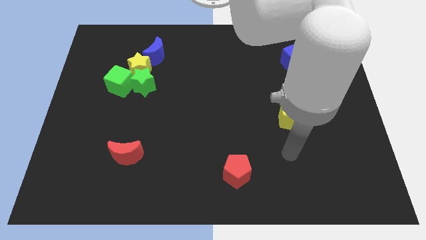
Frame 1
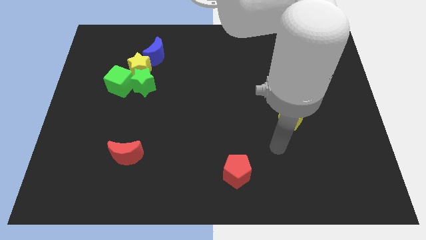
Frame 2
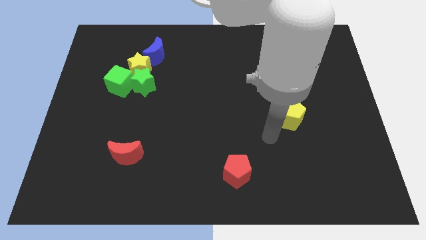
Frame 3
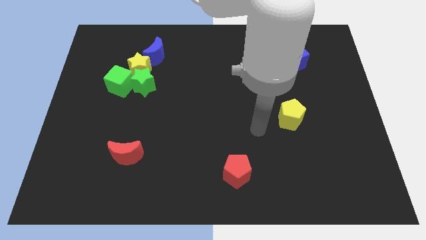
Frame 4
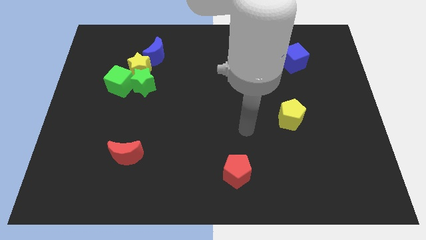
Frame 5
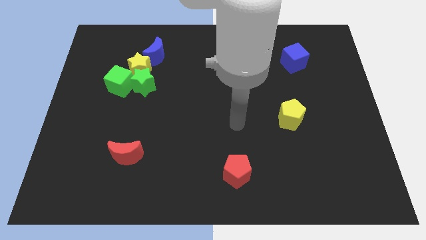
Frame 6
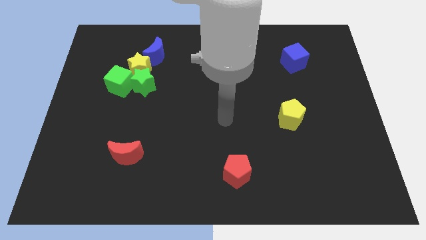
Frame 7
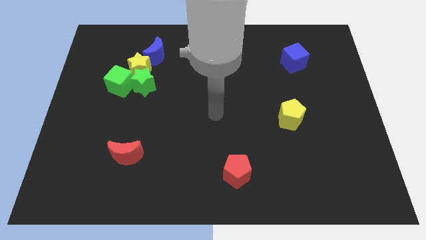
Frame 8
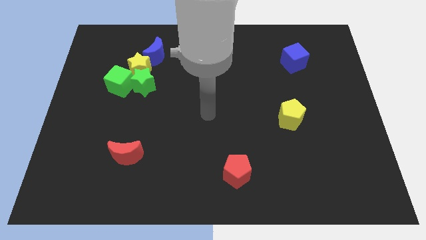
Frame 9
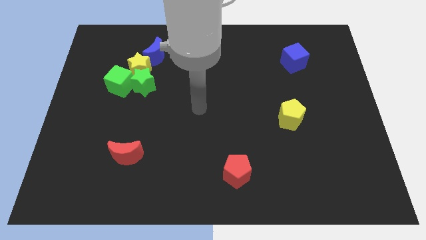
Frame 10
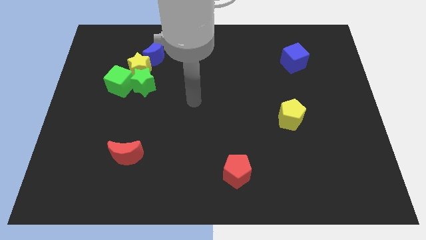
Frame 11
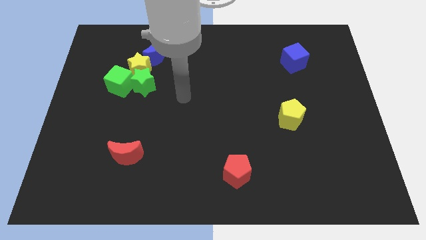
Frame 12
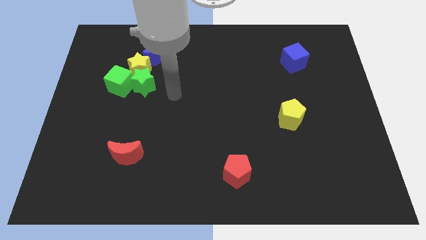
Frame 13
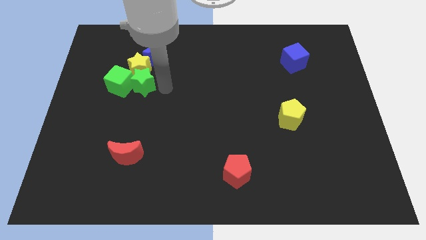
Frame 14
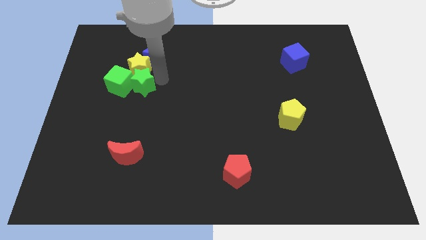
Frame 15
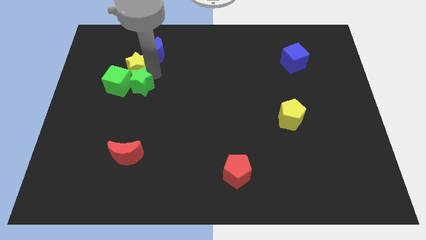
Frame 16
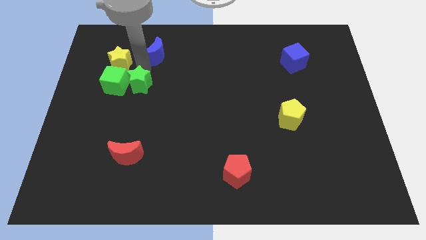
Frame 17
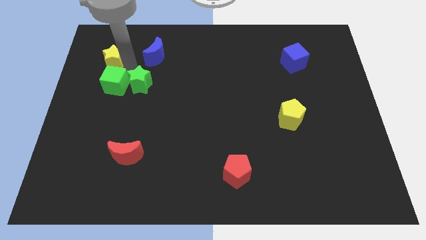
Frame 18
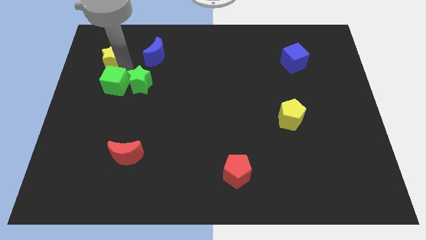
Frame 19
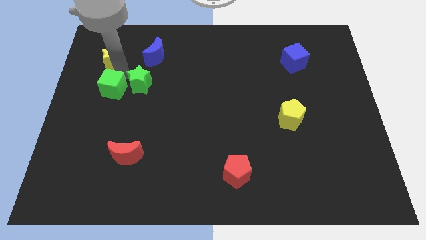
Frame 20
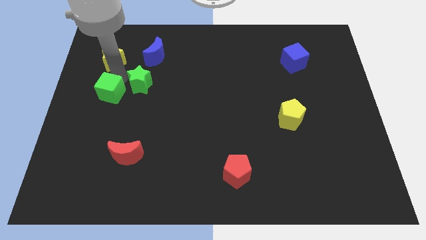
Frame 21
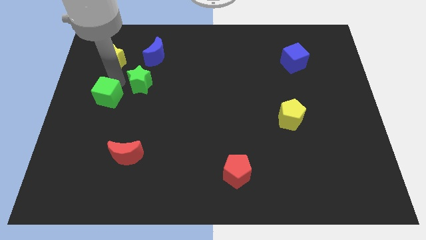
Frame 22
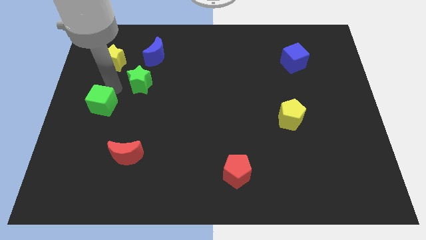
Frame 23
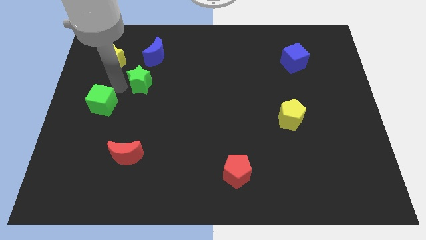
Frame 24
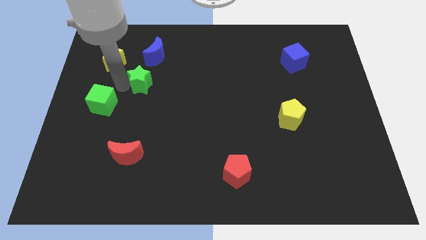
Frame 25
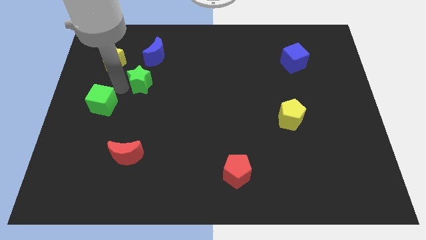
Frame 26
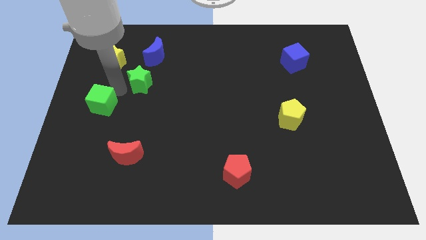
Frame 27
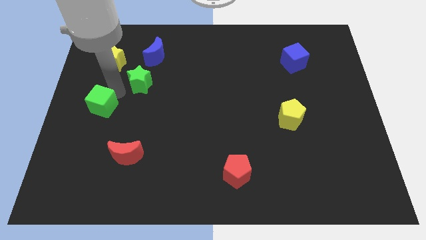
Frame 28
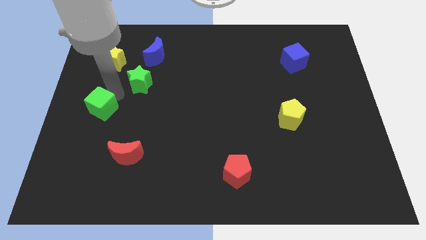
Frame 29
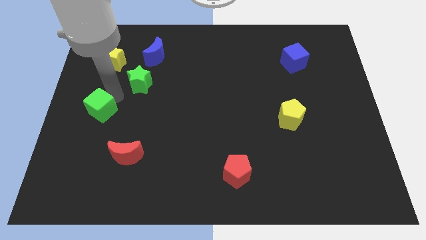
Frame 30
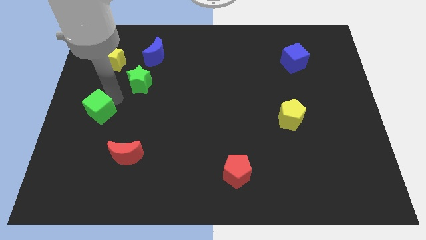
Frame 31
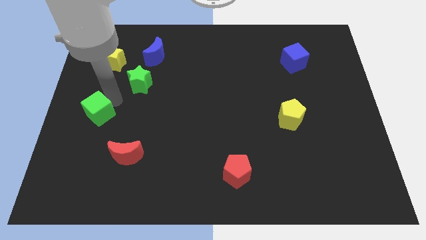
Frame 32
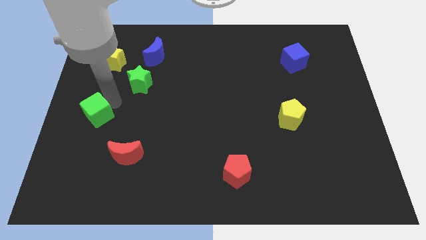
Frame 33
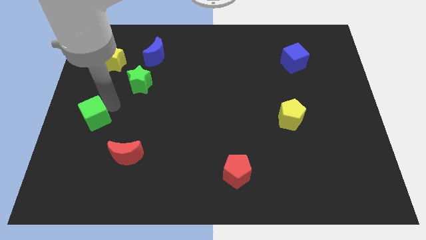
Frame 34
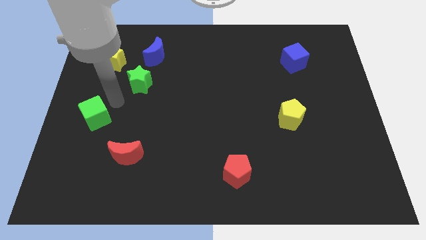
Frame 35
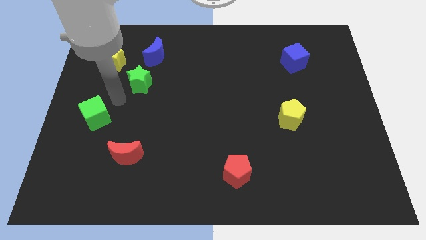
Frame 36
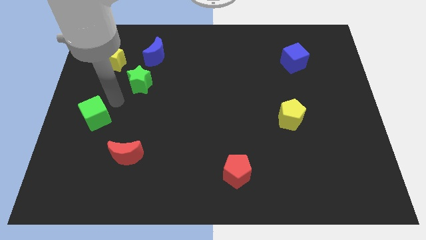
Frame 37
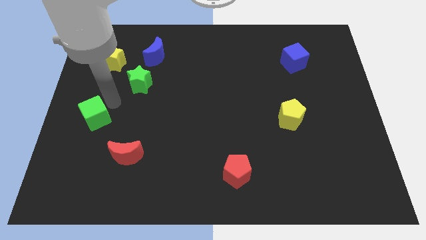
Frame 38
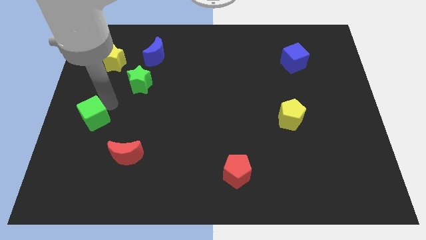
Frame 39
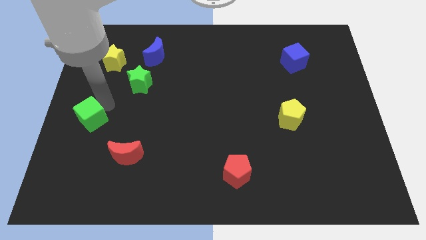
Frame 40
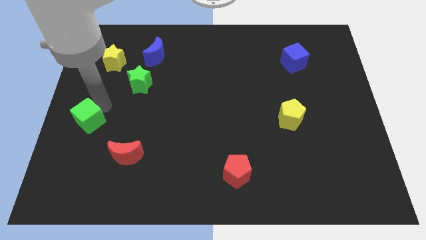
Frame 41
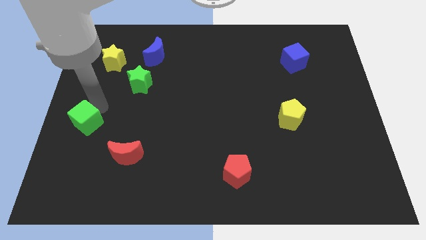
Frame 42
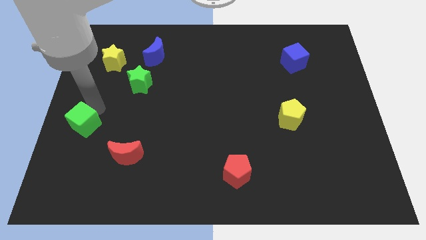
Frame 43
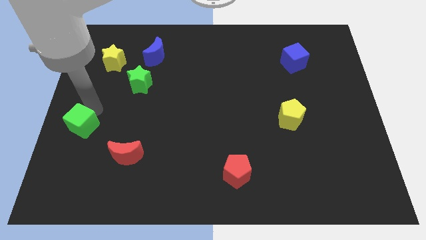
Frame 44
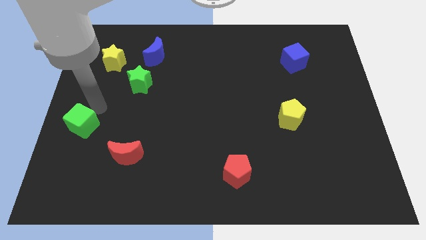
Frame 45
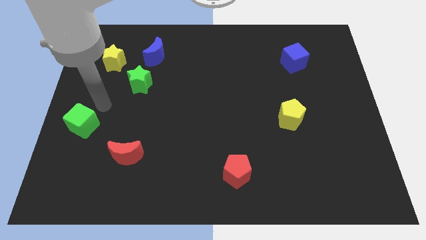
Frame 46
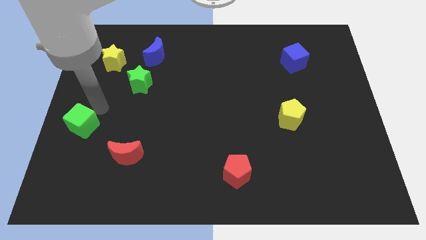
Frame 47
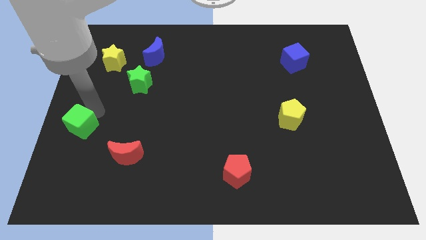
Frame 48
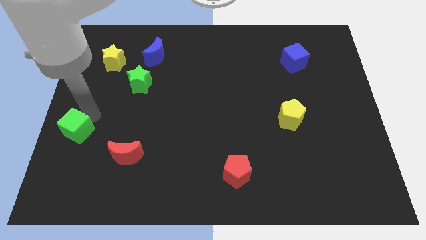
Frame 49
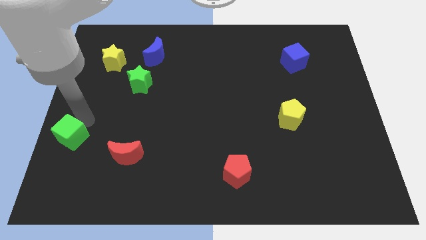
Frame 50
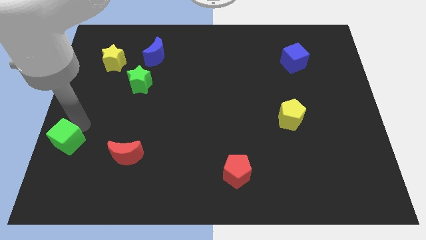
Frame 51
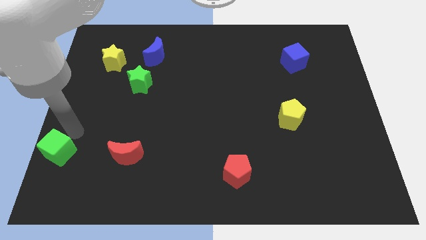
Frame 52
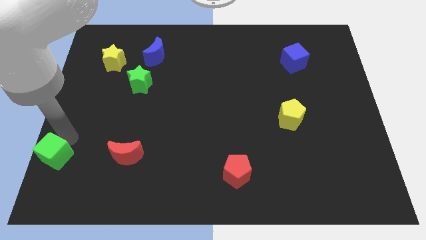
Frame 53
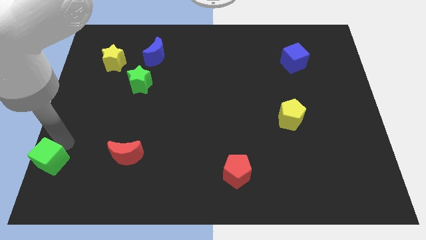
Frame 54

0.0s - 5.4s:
put the green cube to the bottom left corner

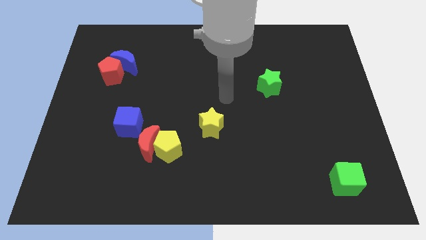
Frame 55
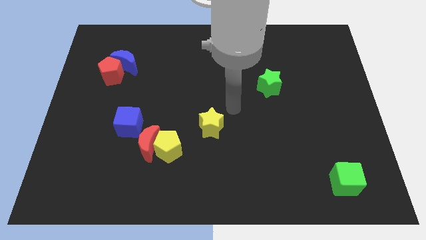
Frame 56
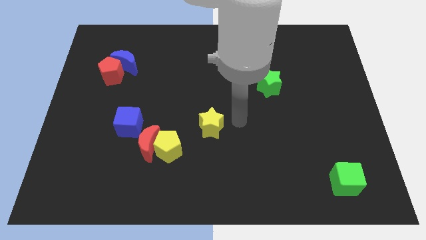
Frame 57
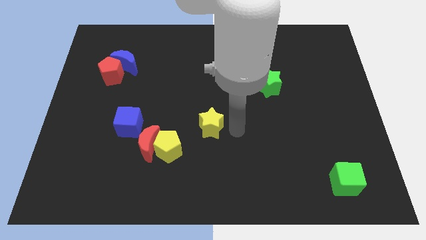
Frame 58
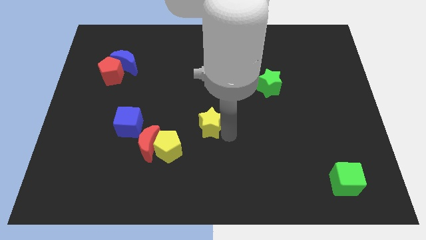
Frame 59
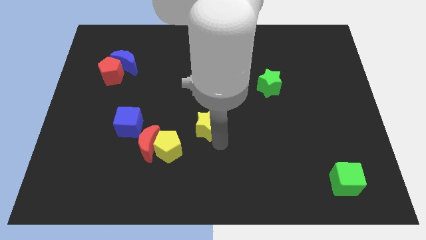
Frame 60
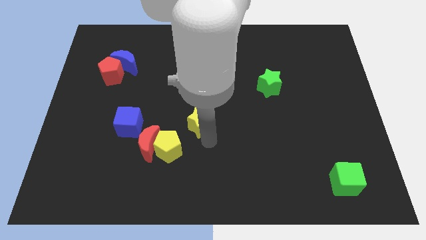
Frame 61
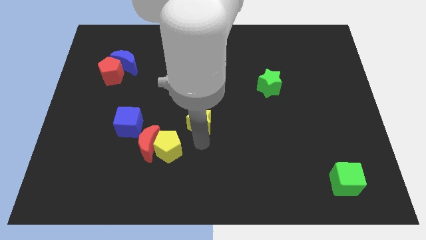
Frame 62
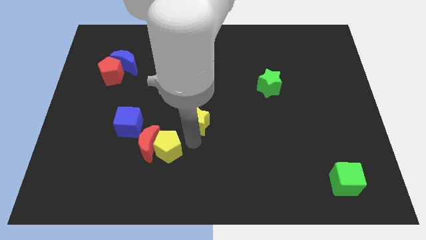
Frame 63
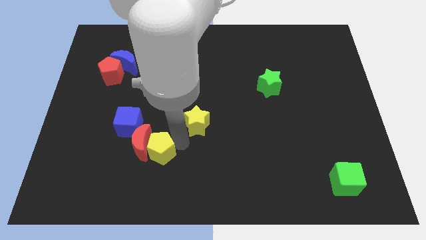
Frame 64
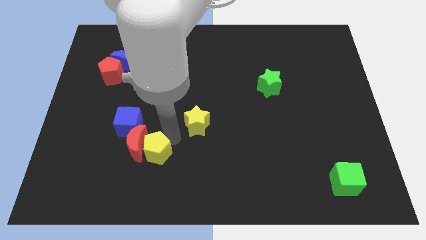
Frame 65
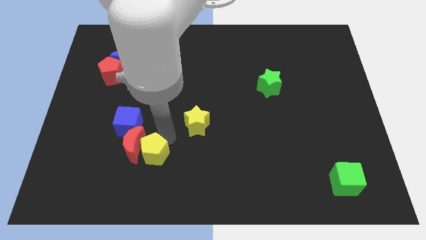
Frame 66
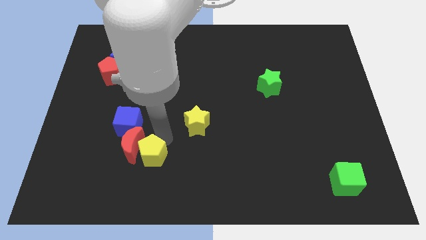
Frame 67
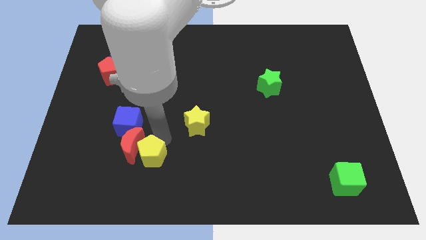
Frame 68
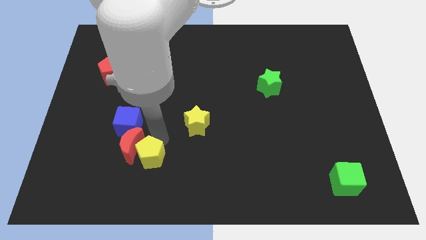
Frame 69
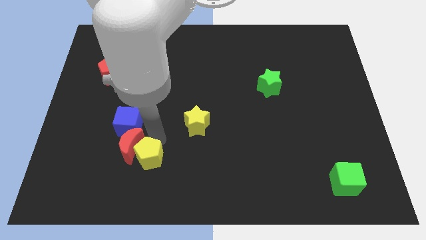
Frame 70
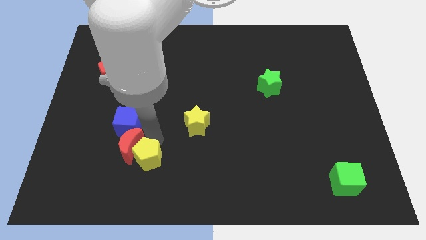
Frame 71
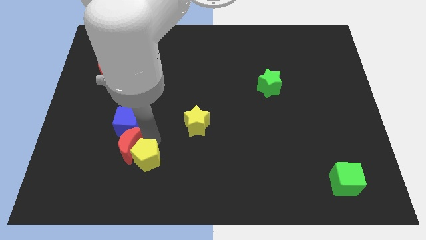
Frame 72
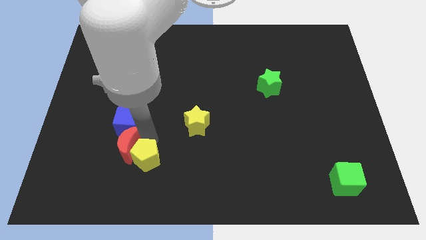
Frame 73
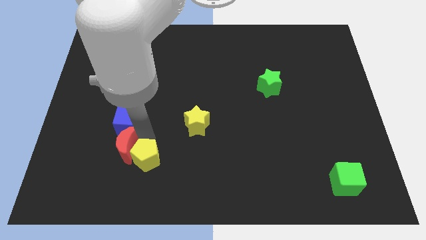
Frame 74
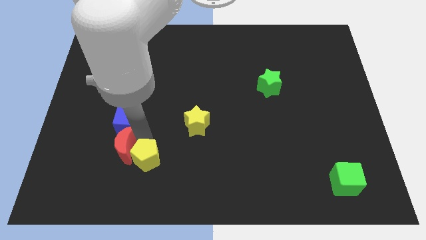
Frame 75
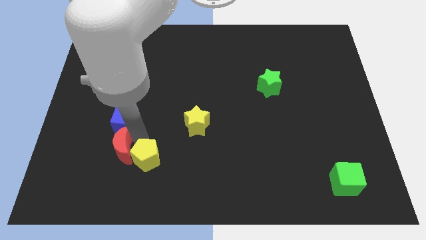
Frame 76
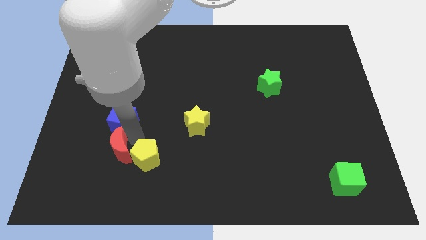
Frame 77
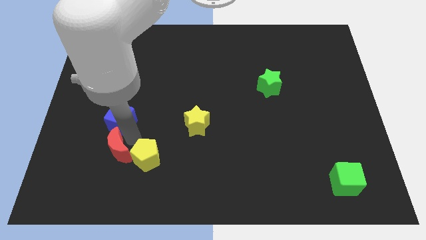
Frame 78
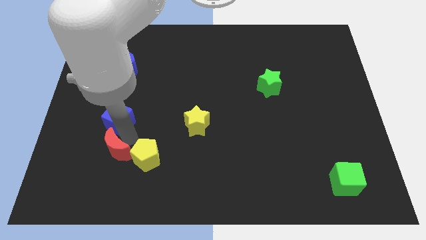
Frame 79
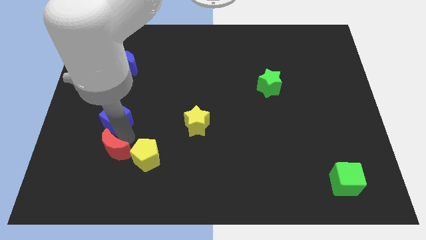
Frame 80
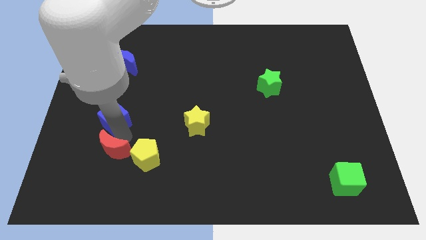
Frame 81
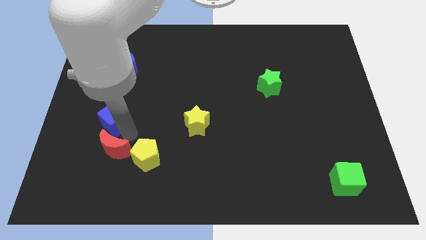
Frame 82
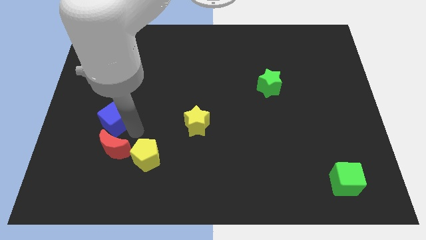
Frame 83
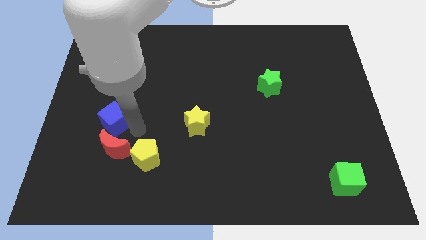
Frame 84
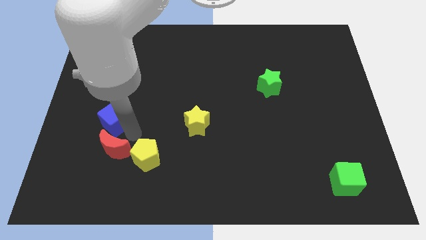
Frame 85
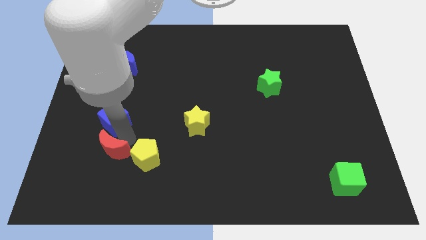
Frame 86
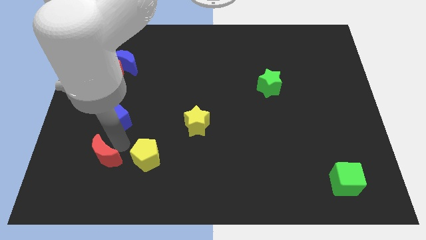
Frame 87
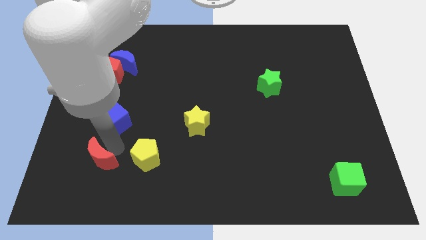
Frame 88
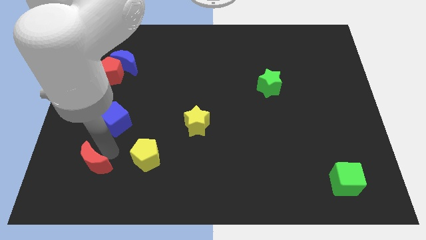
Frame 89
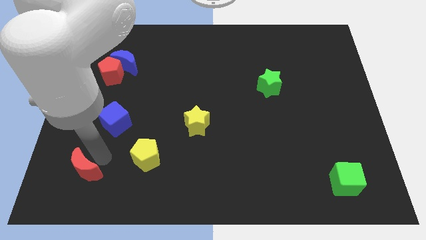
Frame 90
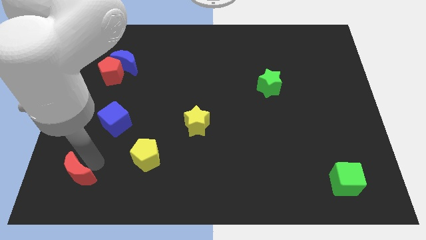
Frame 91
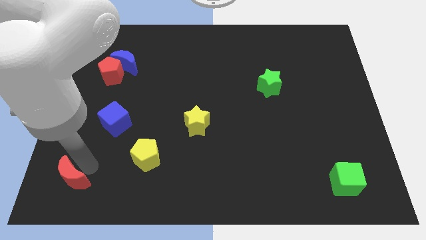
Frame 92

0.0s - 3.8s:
move the red moon to the bottom left corner
